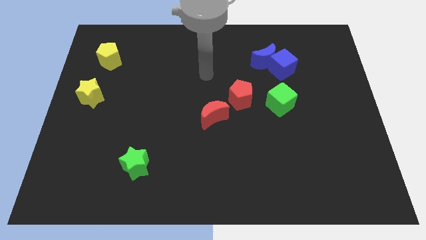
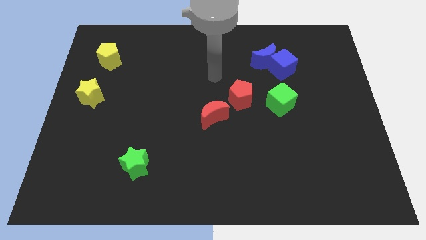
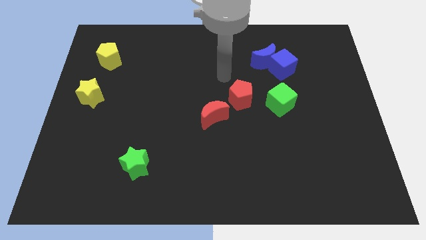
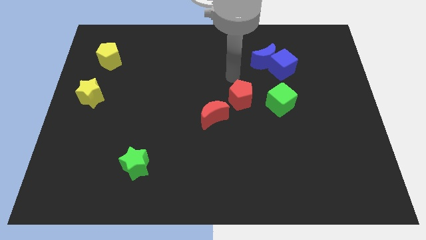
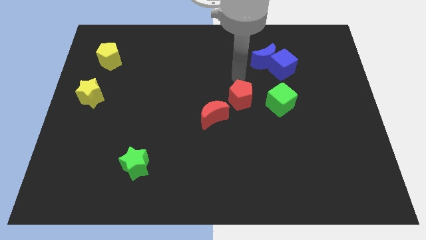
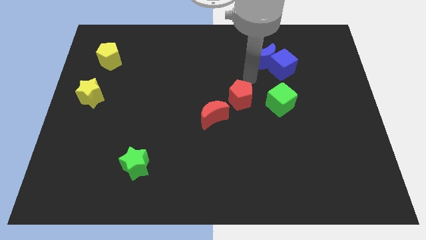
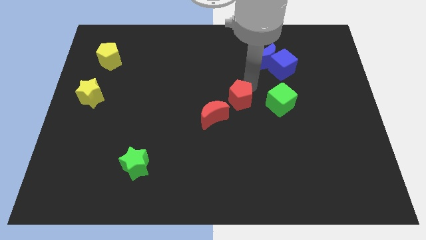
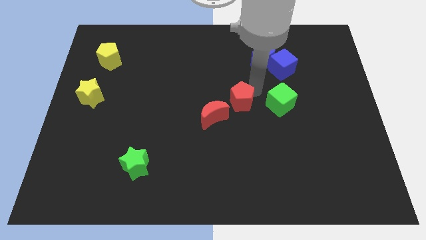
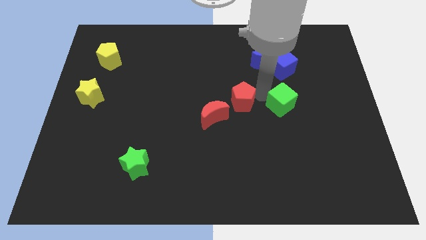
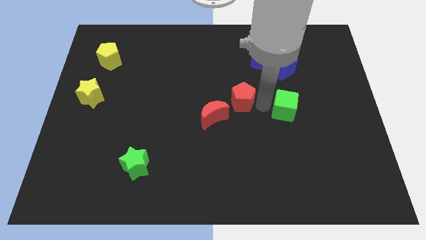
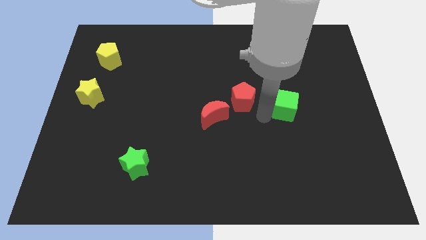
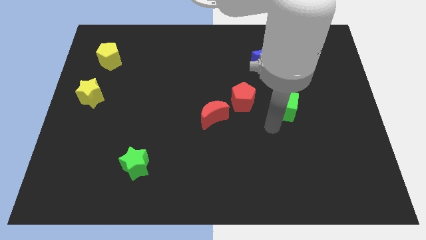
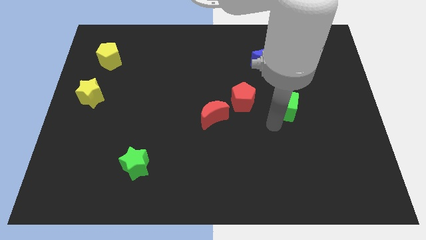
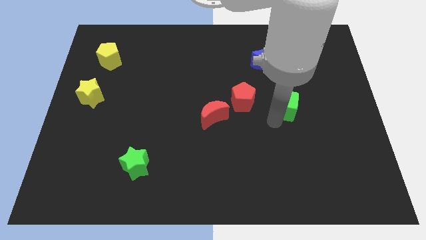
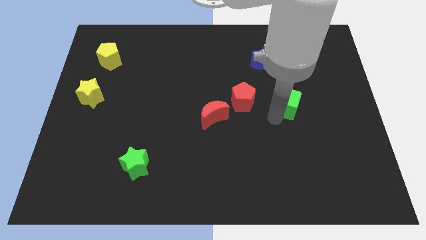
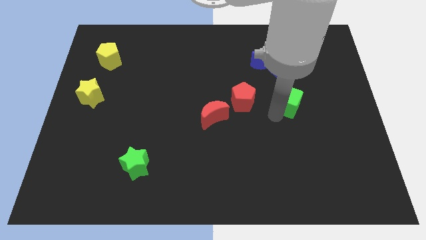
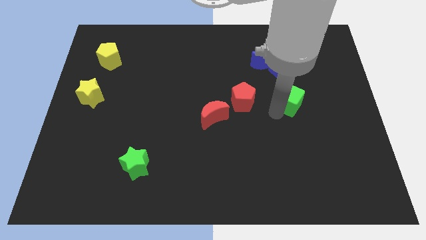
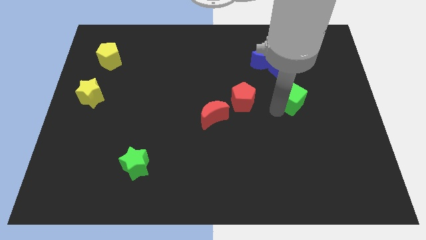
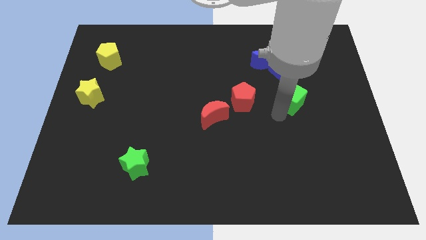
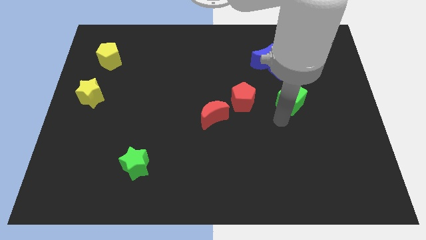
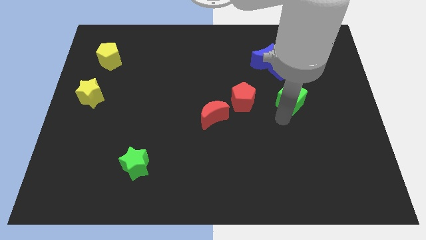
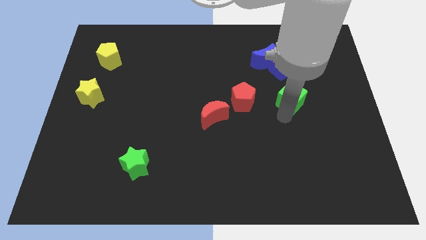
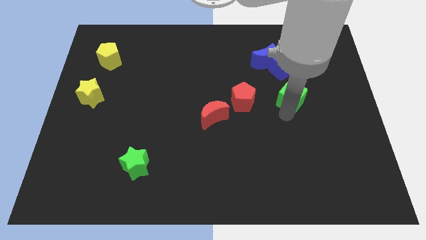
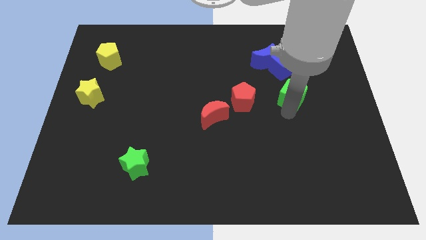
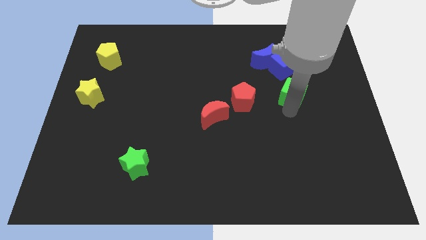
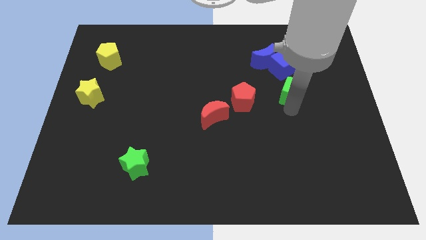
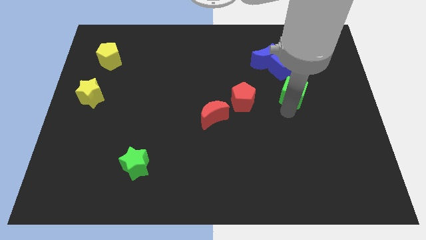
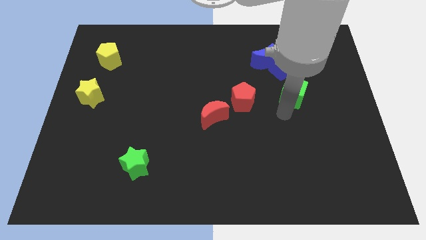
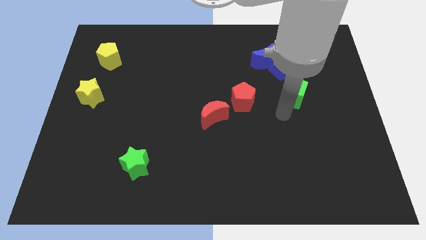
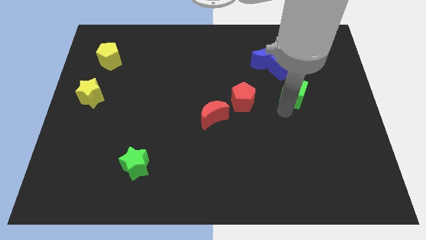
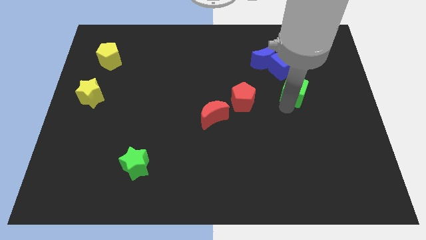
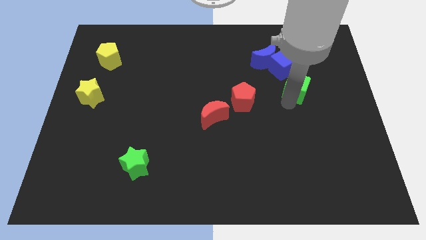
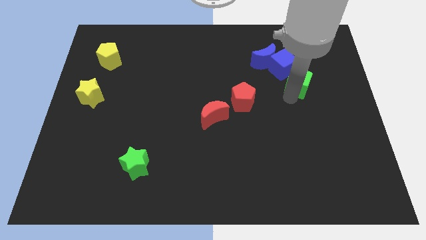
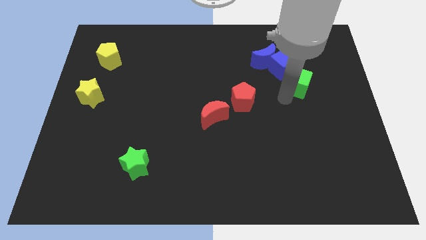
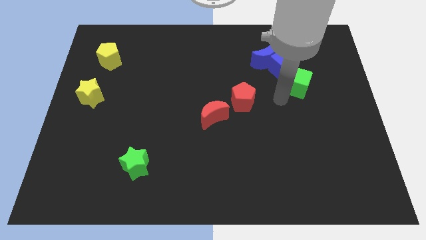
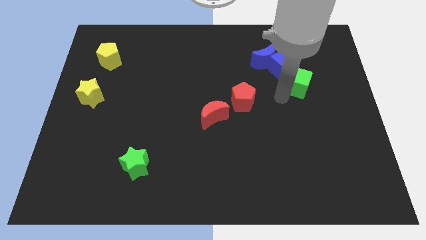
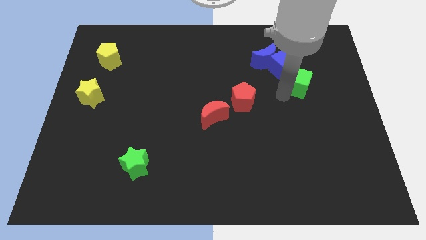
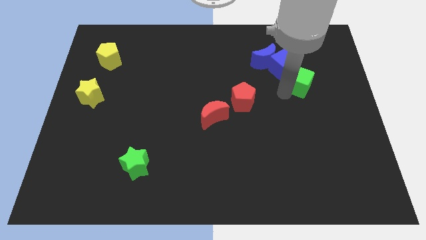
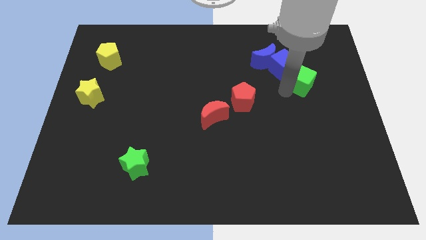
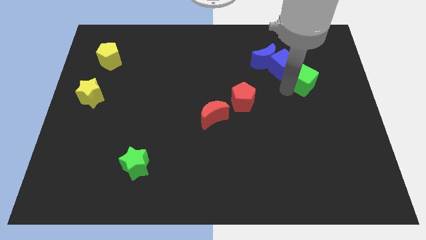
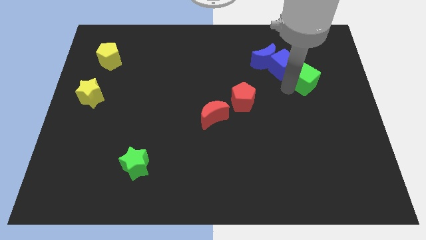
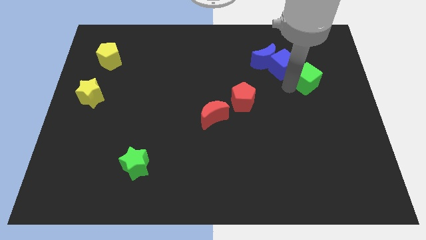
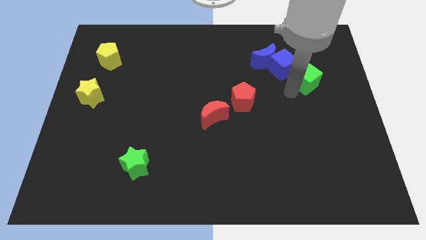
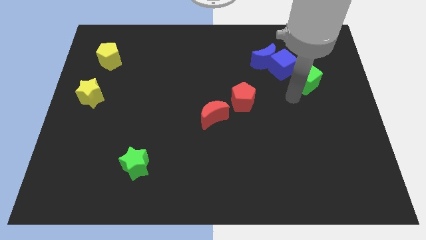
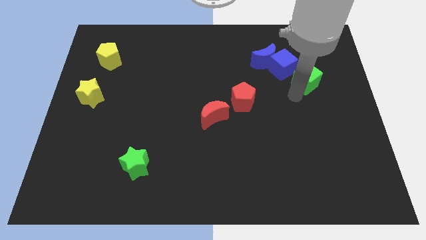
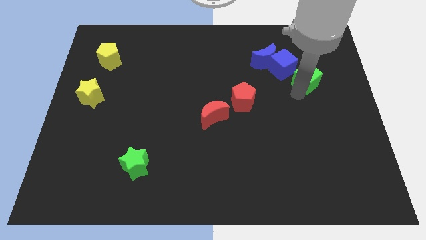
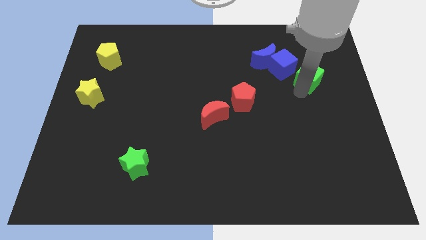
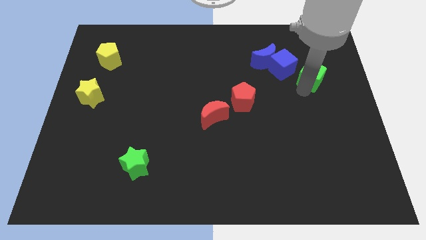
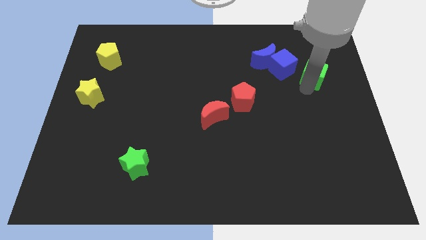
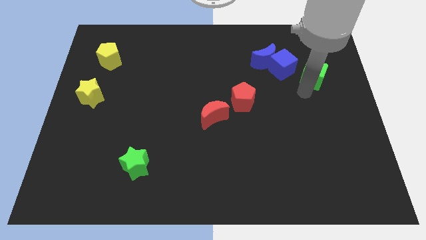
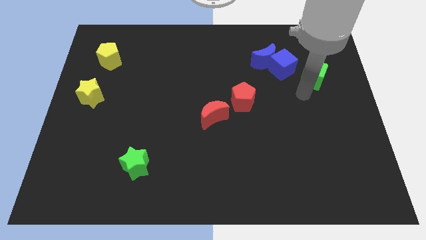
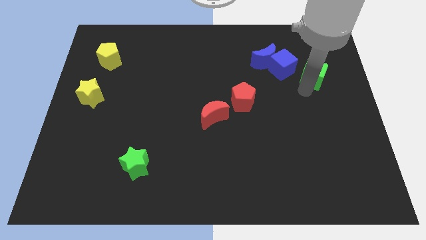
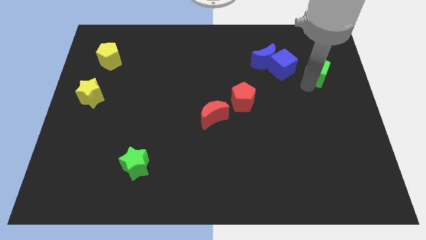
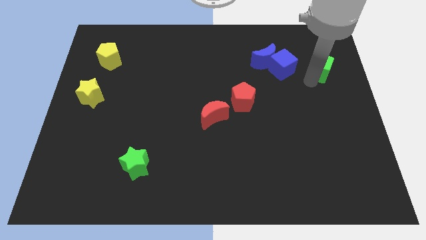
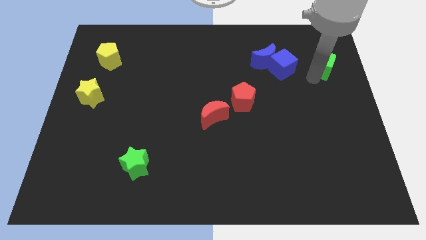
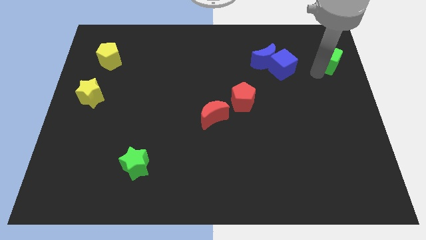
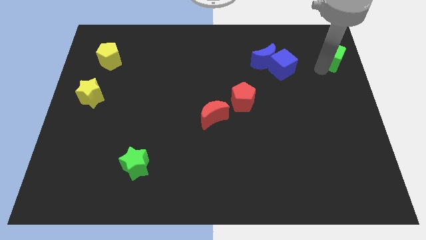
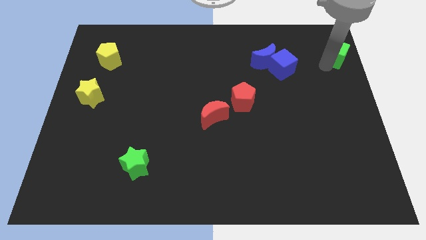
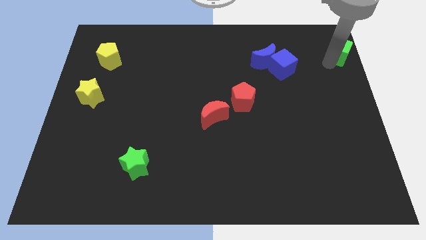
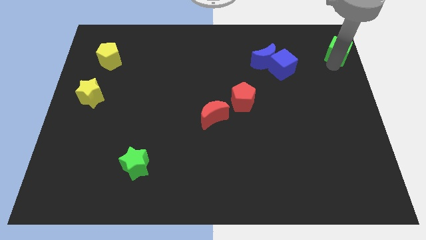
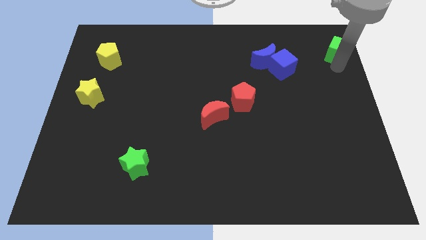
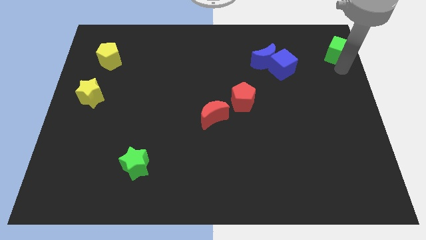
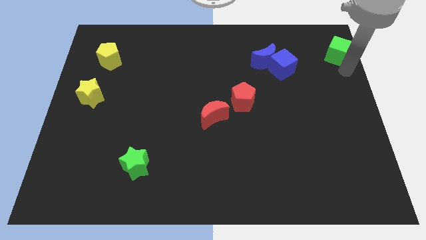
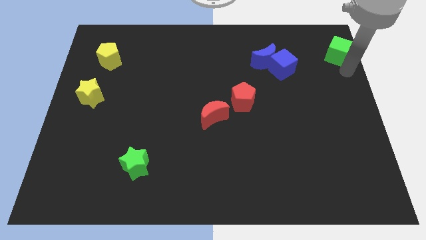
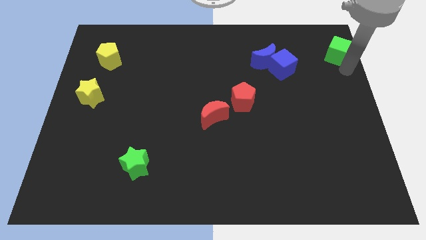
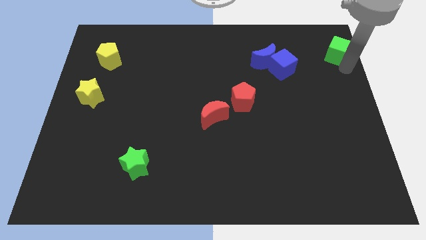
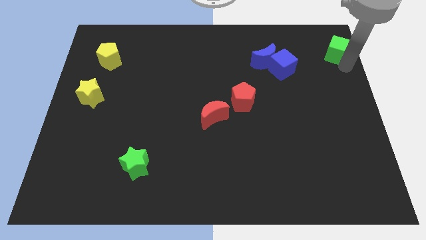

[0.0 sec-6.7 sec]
put the green cube to the upper right corner

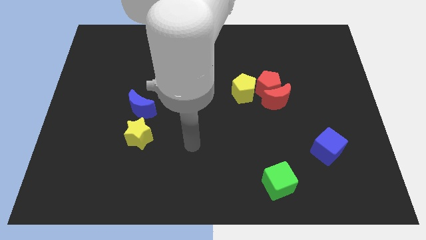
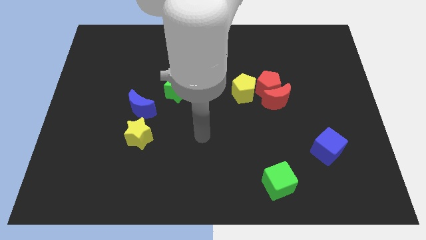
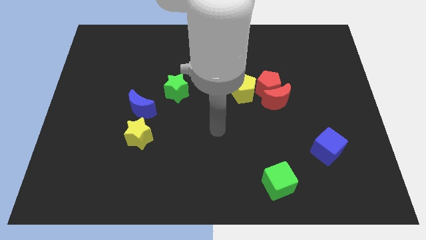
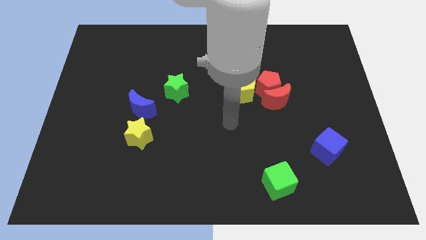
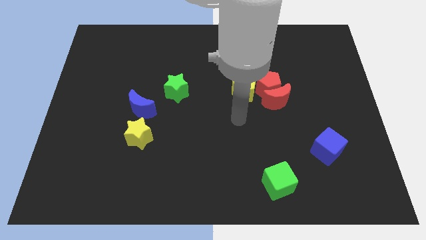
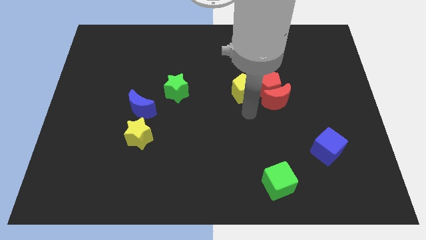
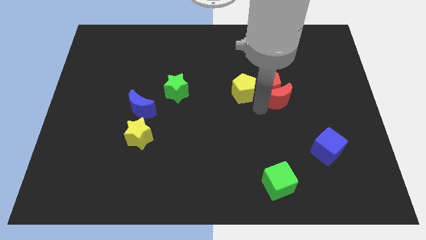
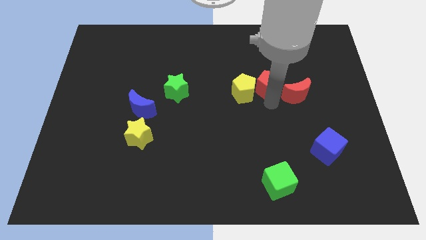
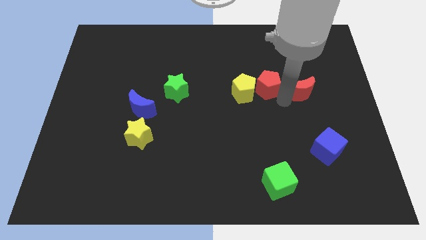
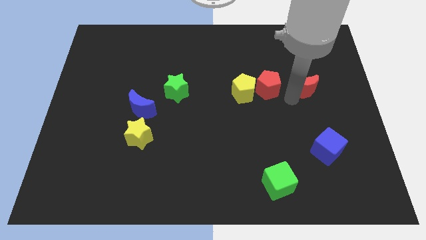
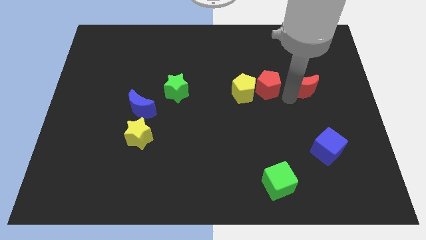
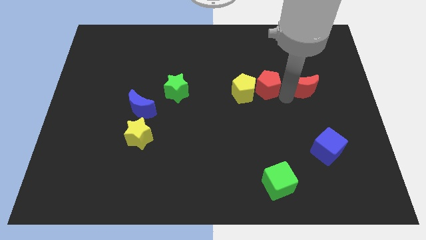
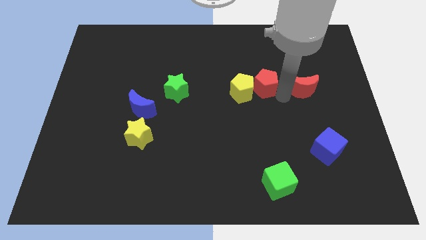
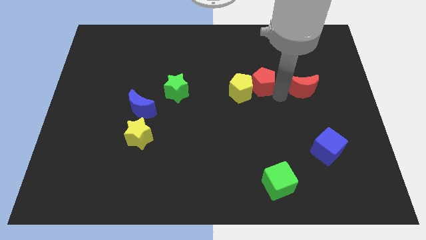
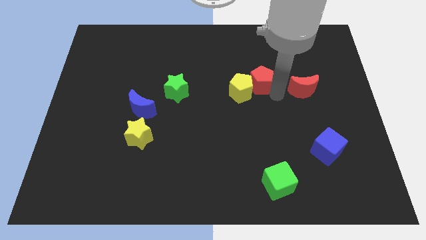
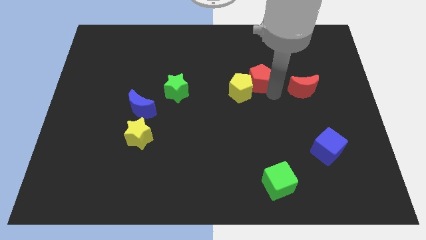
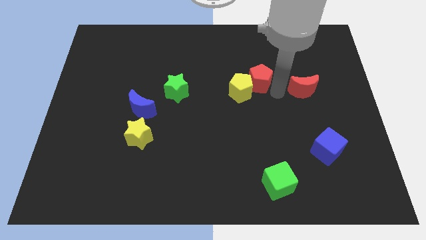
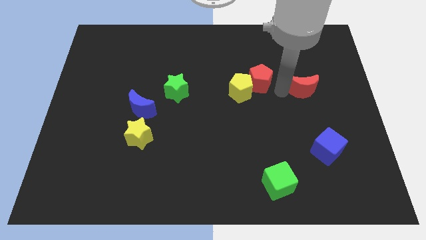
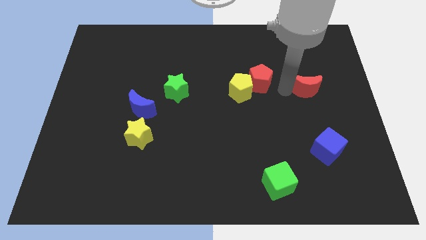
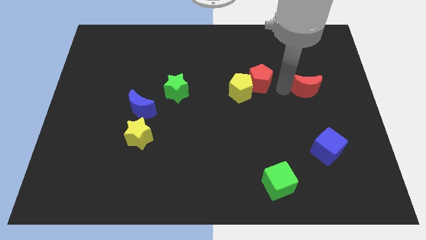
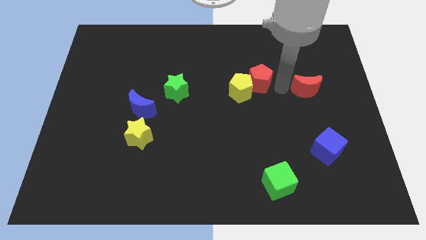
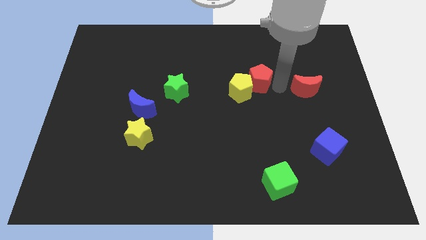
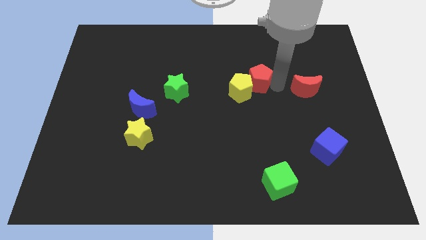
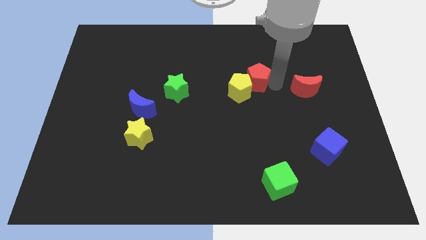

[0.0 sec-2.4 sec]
push the red pentagon to the center of the board
